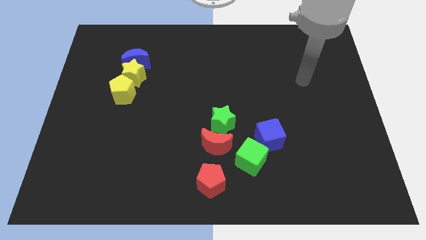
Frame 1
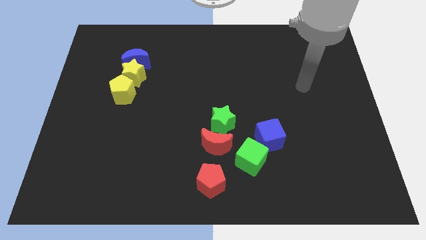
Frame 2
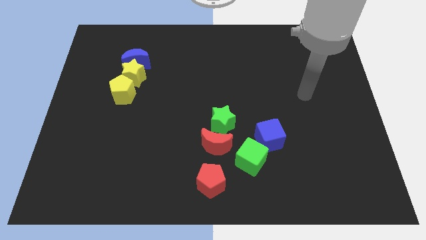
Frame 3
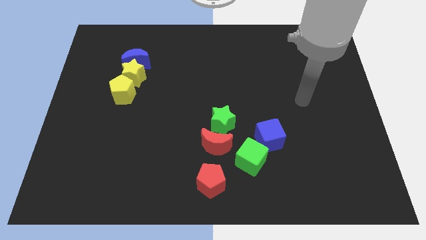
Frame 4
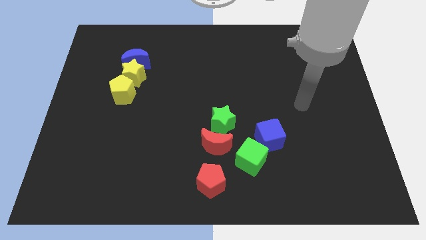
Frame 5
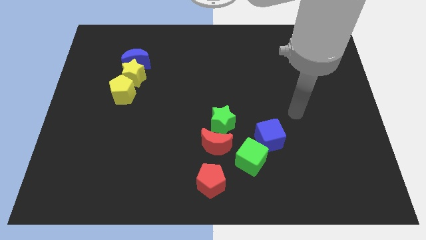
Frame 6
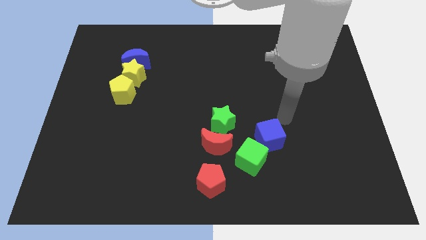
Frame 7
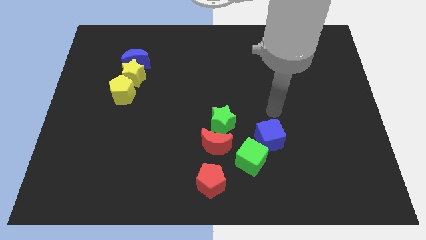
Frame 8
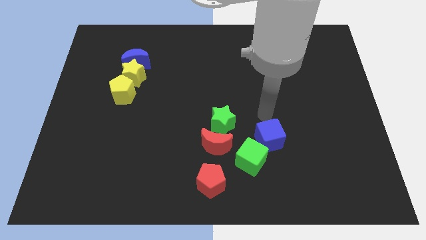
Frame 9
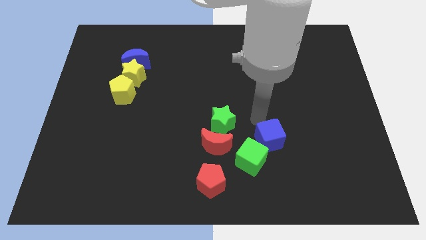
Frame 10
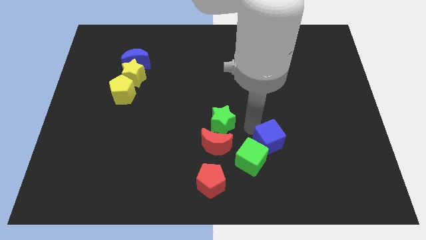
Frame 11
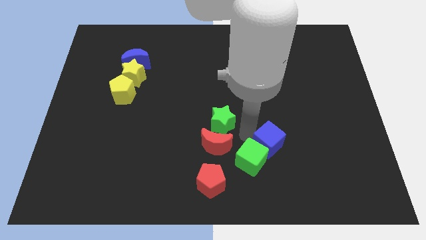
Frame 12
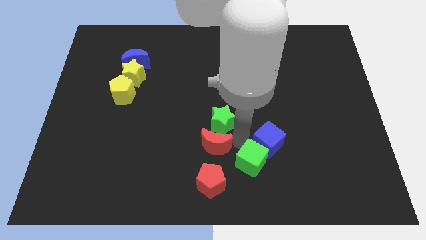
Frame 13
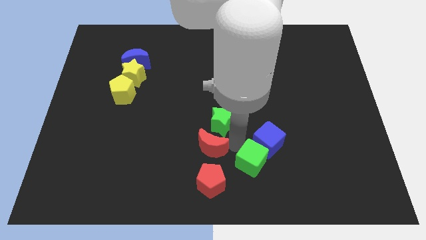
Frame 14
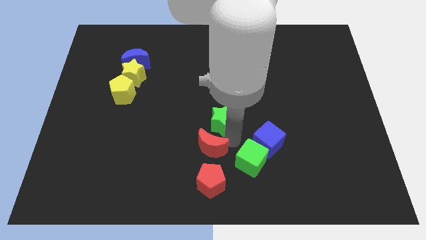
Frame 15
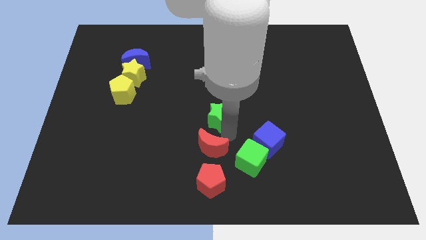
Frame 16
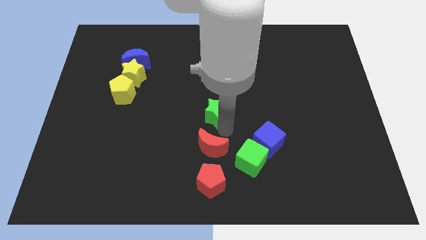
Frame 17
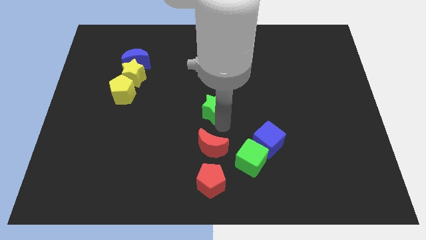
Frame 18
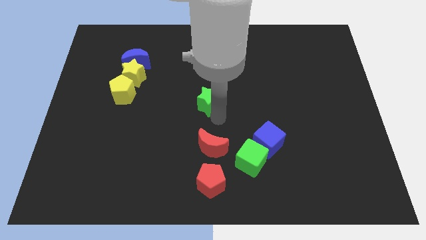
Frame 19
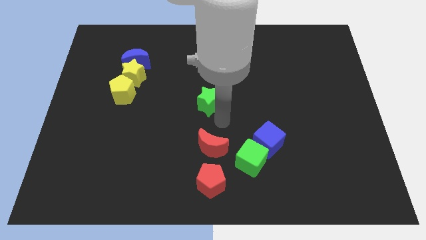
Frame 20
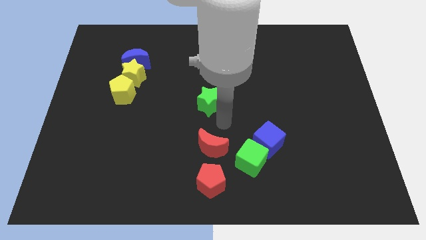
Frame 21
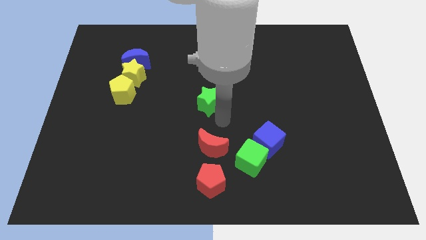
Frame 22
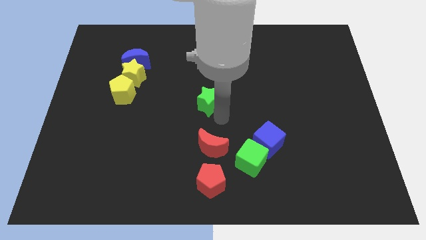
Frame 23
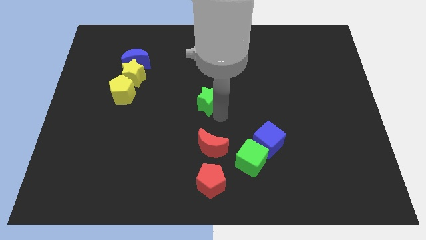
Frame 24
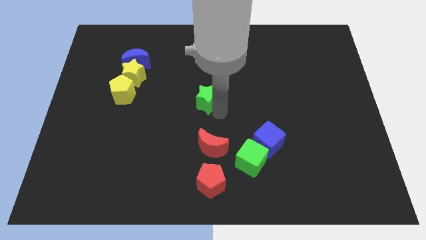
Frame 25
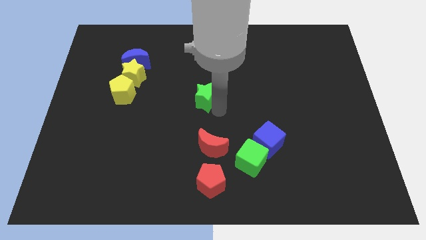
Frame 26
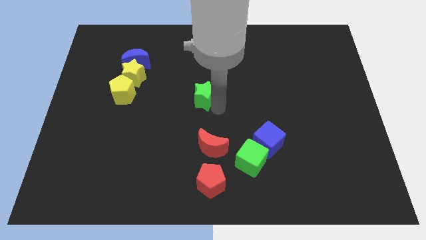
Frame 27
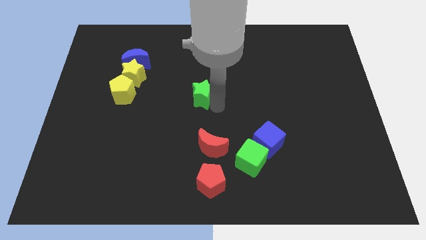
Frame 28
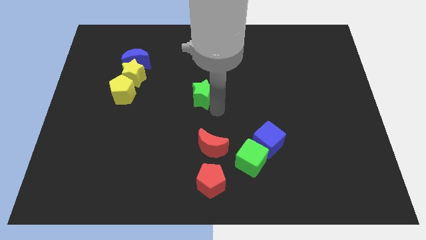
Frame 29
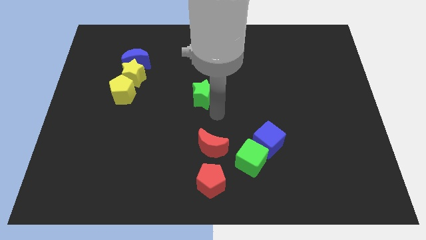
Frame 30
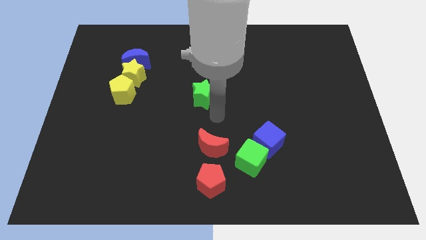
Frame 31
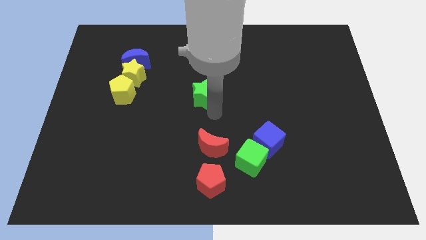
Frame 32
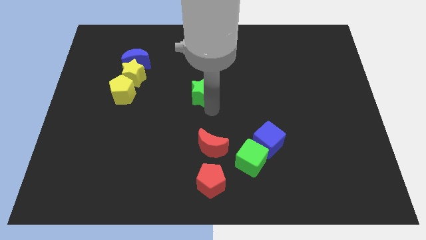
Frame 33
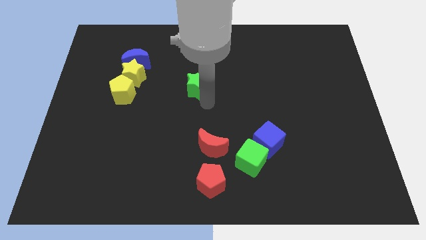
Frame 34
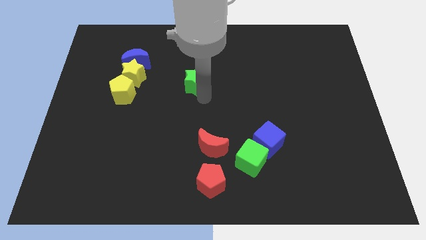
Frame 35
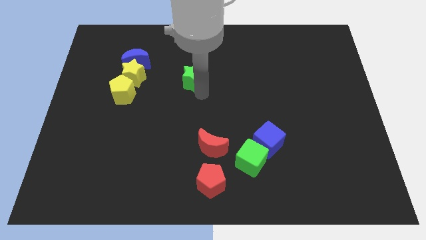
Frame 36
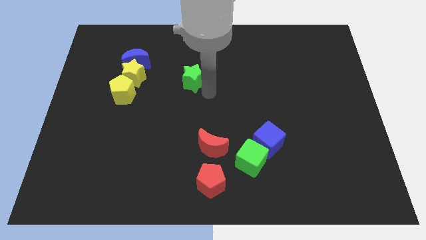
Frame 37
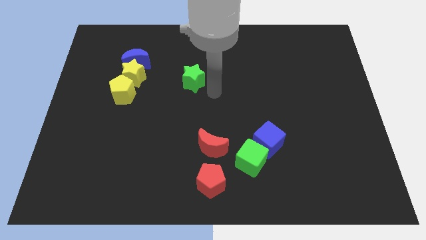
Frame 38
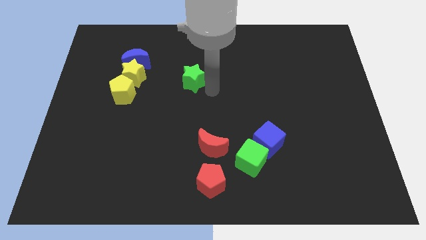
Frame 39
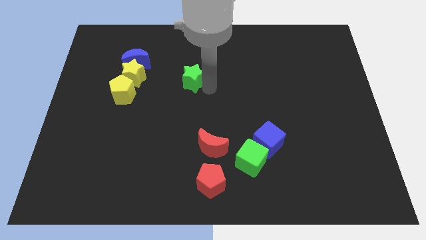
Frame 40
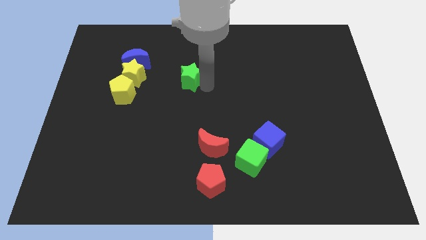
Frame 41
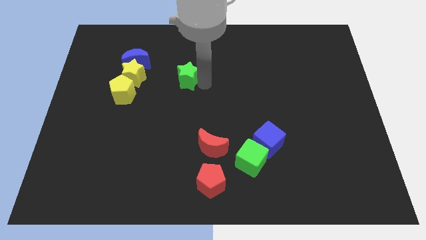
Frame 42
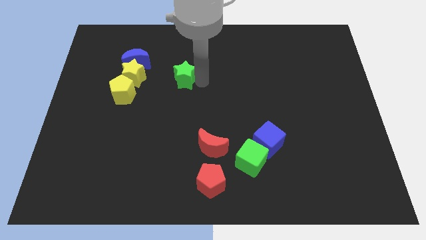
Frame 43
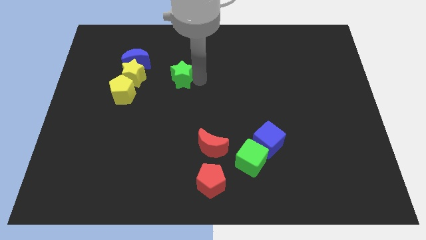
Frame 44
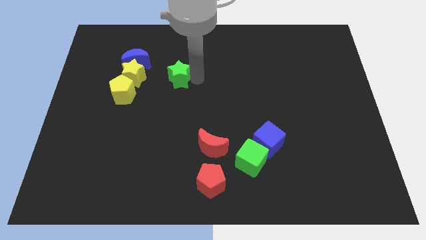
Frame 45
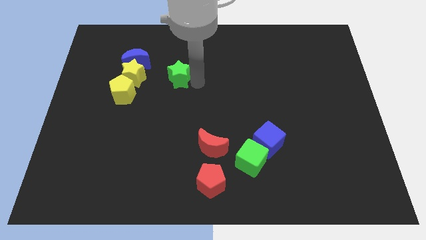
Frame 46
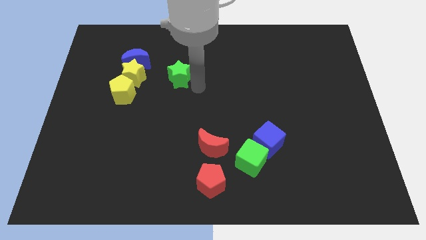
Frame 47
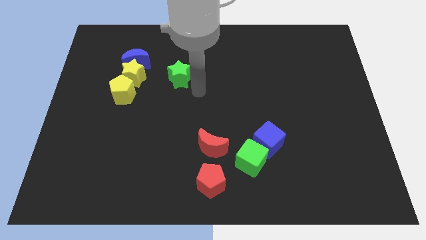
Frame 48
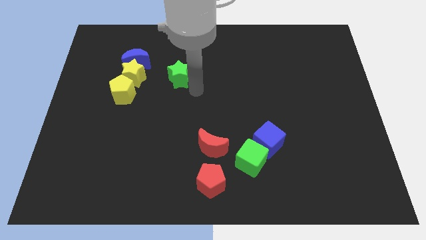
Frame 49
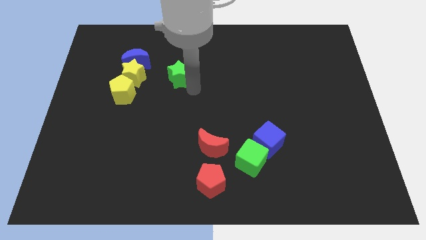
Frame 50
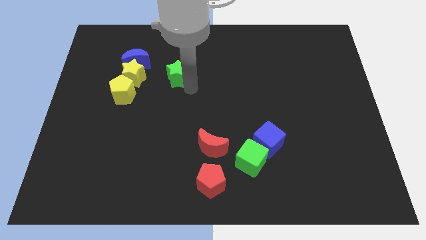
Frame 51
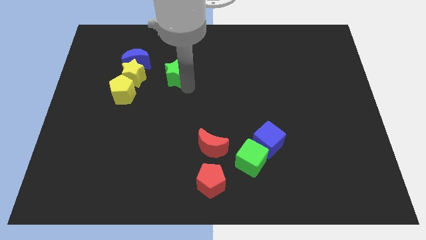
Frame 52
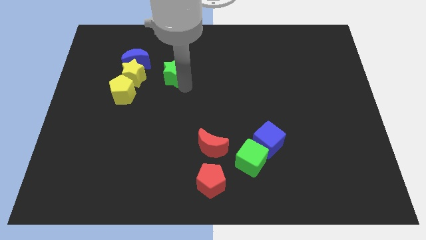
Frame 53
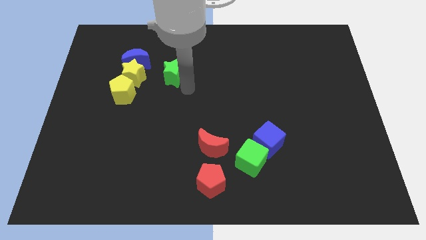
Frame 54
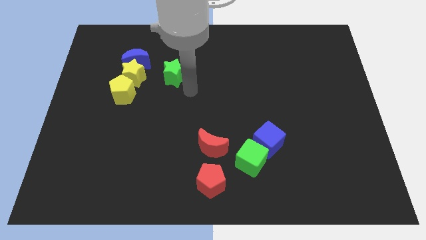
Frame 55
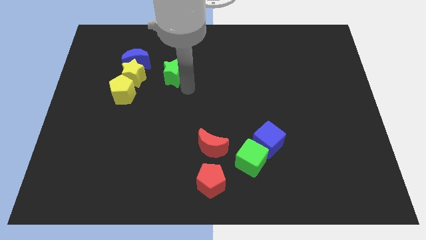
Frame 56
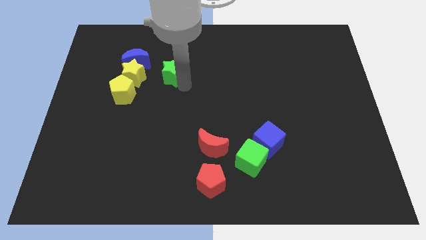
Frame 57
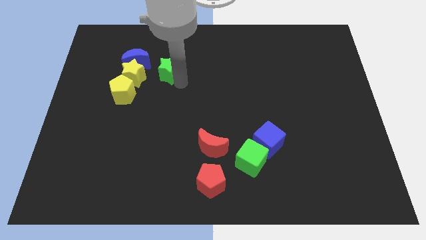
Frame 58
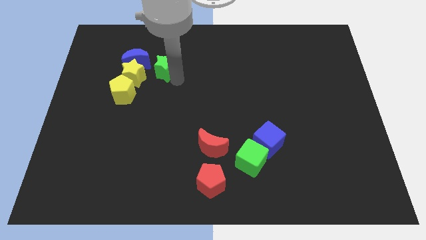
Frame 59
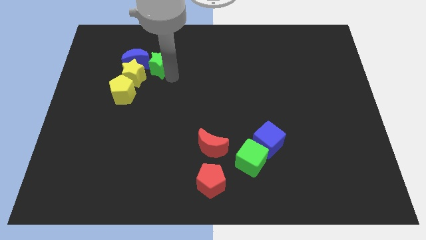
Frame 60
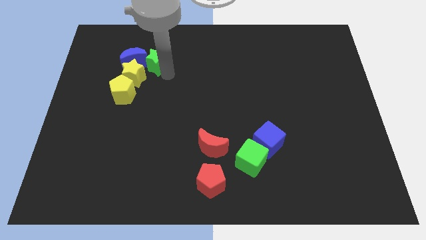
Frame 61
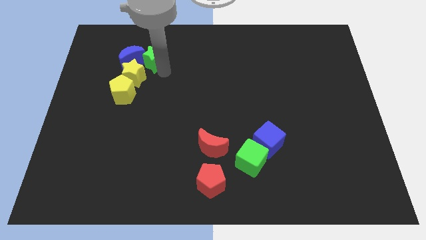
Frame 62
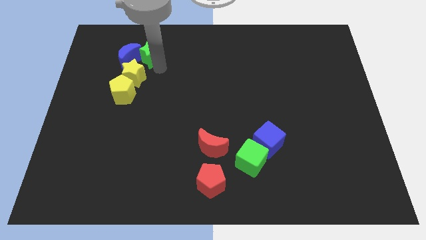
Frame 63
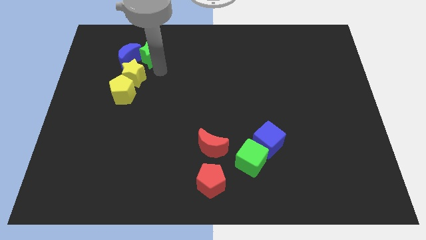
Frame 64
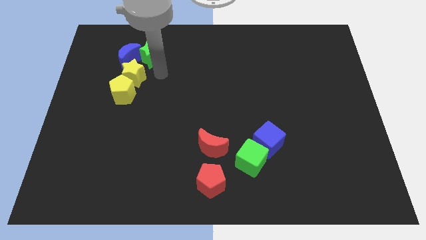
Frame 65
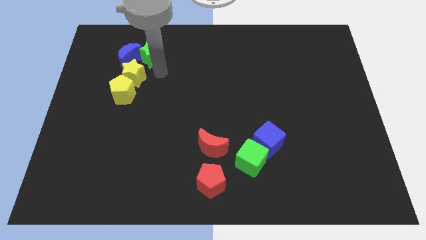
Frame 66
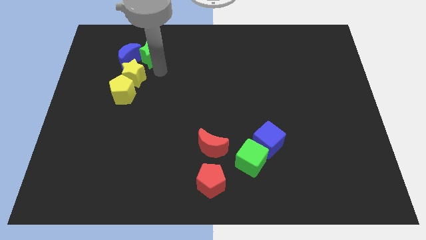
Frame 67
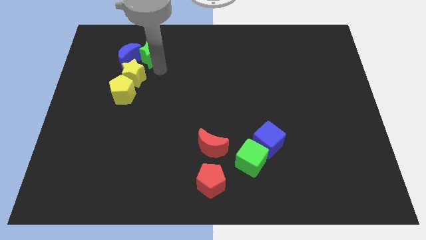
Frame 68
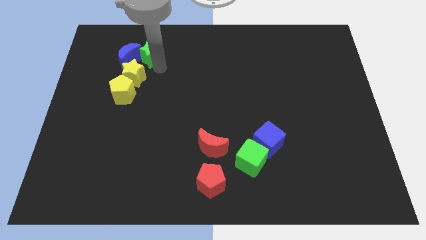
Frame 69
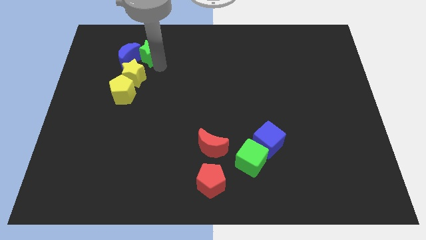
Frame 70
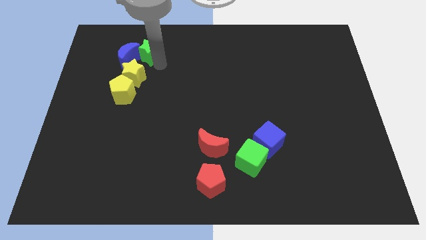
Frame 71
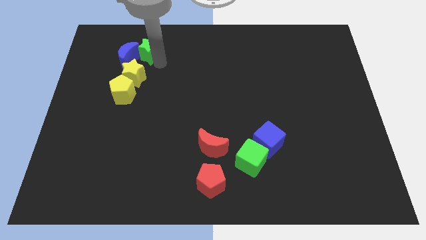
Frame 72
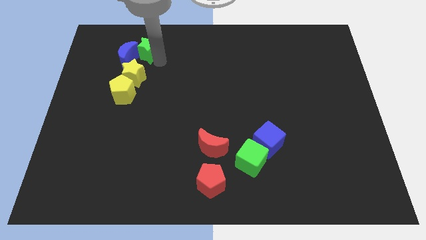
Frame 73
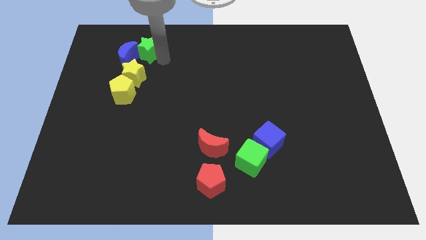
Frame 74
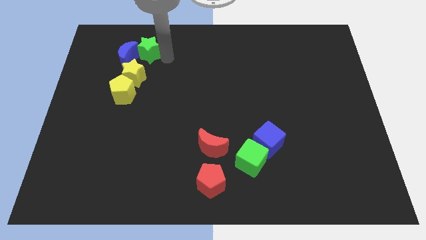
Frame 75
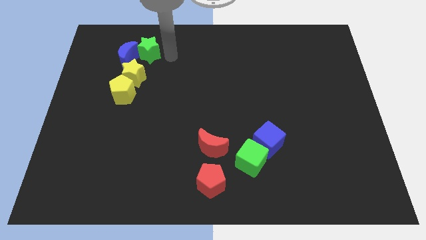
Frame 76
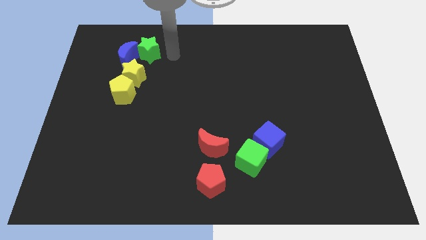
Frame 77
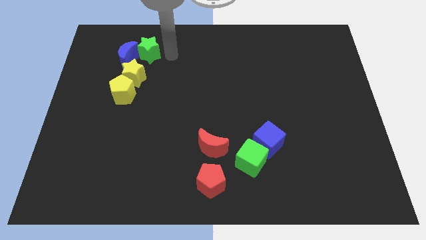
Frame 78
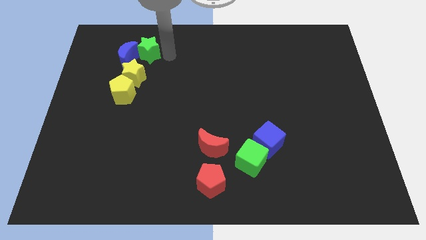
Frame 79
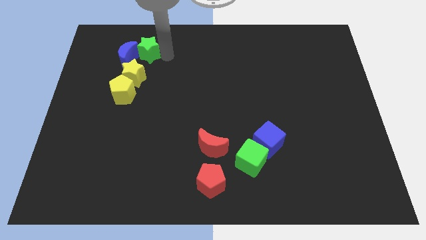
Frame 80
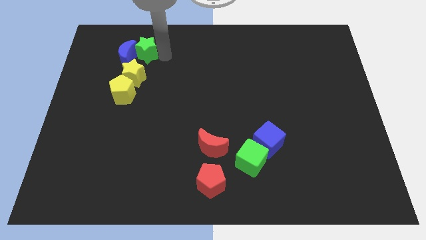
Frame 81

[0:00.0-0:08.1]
slide the green star to the top side of the yellow pentagon
